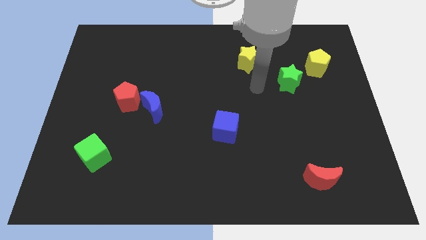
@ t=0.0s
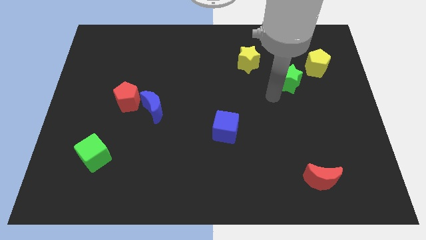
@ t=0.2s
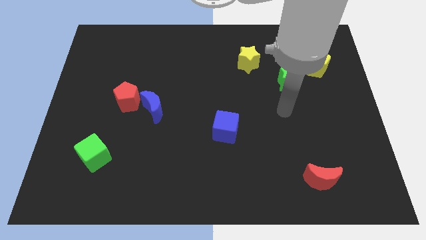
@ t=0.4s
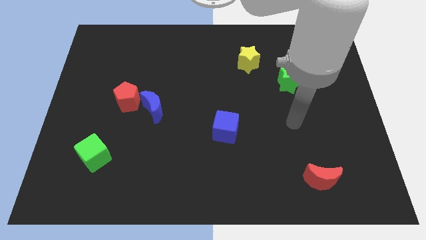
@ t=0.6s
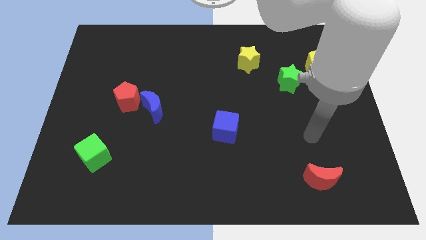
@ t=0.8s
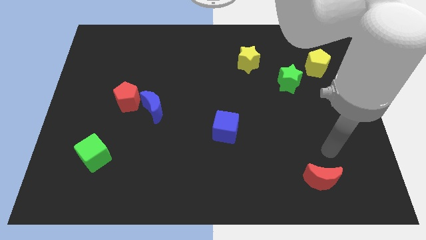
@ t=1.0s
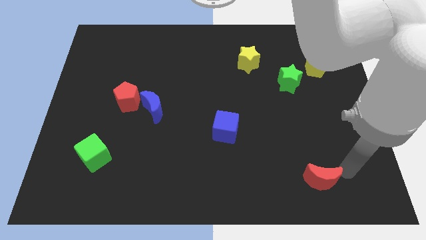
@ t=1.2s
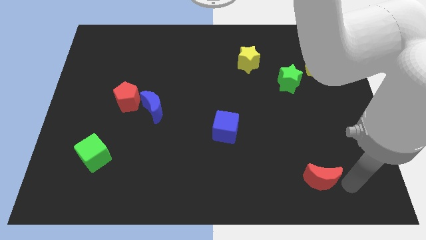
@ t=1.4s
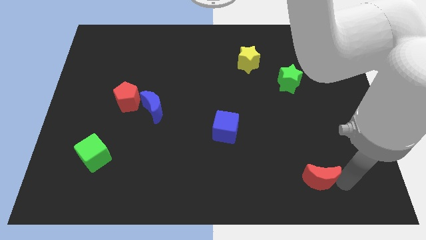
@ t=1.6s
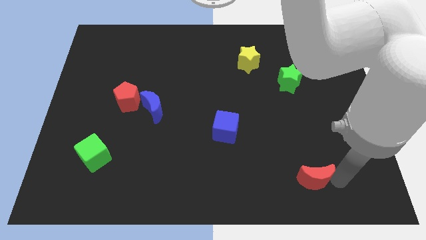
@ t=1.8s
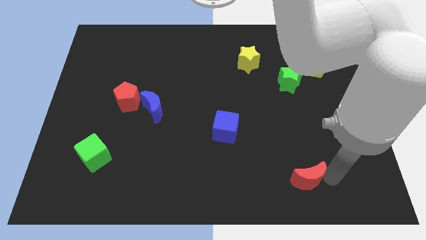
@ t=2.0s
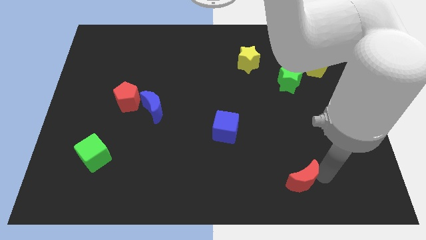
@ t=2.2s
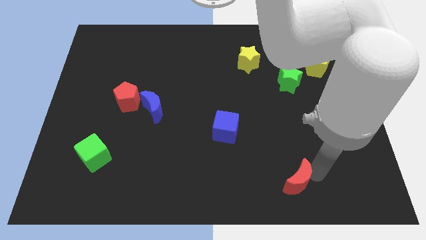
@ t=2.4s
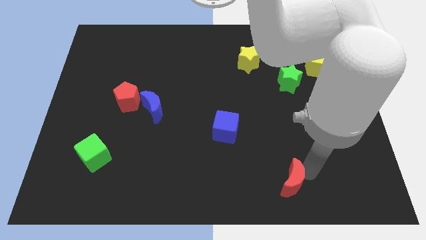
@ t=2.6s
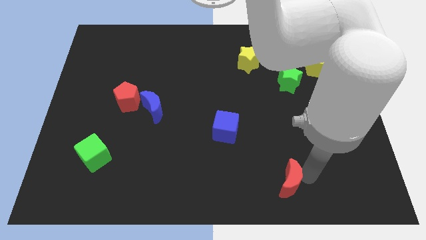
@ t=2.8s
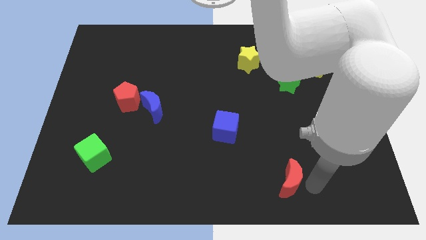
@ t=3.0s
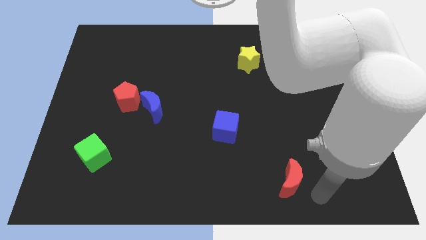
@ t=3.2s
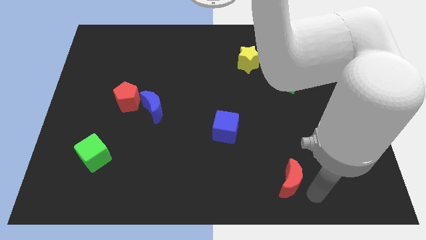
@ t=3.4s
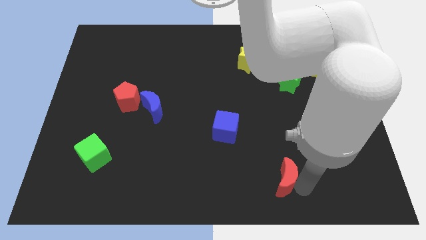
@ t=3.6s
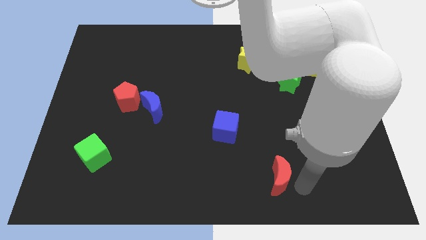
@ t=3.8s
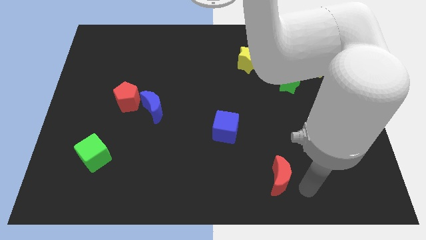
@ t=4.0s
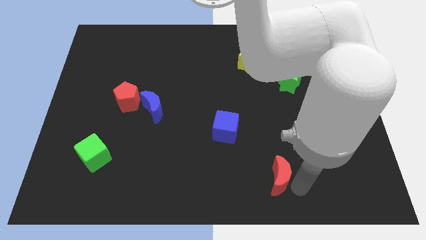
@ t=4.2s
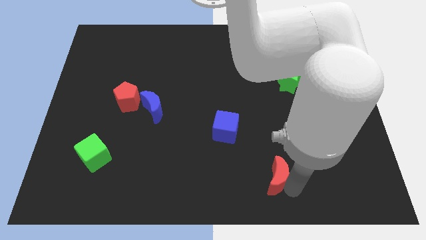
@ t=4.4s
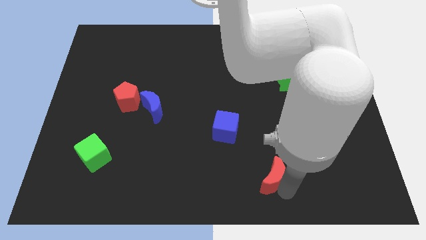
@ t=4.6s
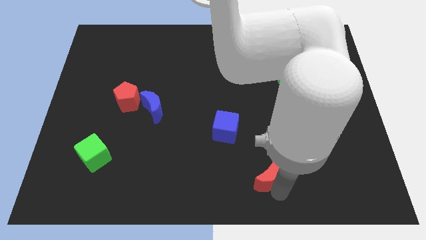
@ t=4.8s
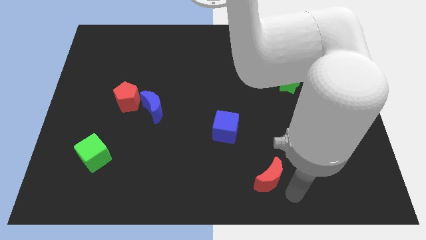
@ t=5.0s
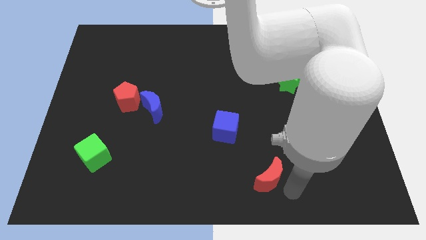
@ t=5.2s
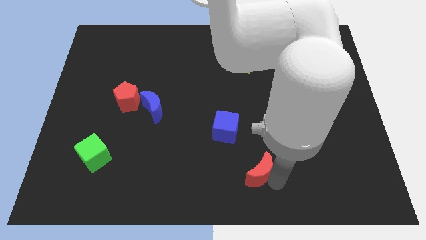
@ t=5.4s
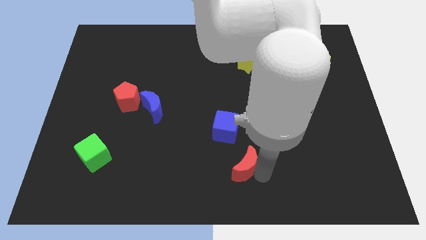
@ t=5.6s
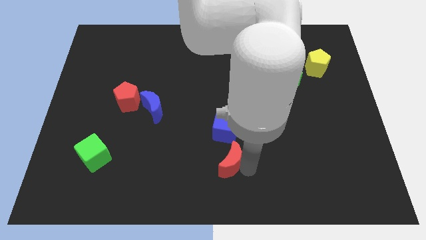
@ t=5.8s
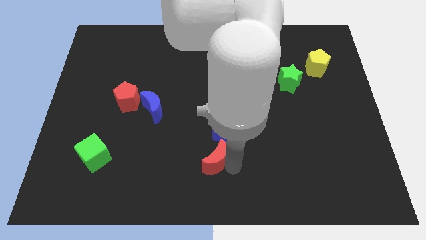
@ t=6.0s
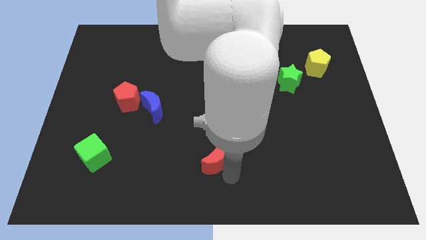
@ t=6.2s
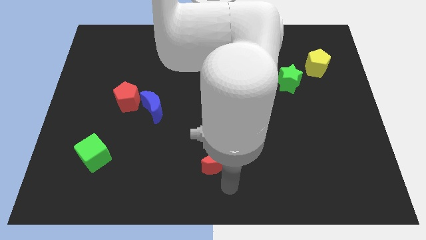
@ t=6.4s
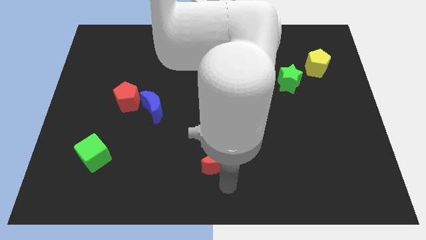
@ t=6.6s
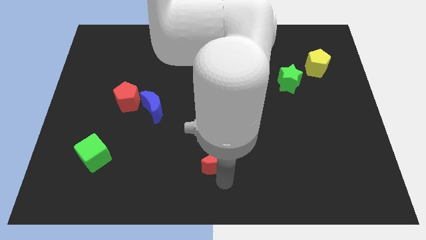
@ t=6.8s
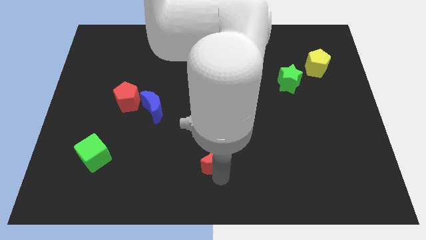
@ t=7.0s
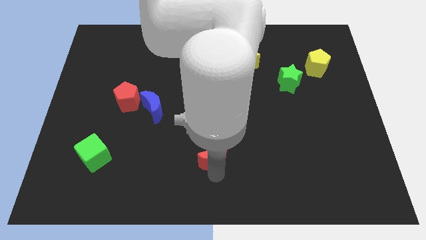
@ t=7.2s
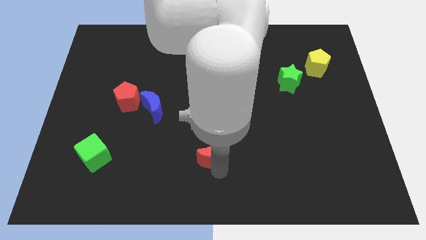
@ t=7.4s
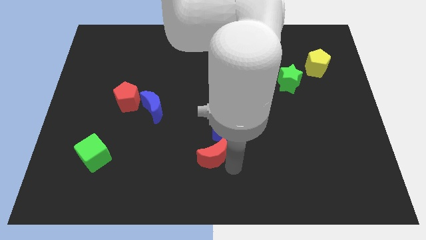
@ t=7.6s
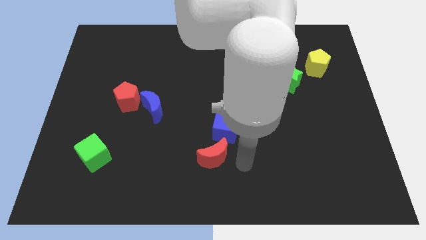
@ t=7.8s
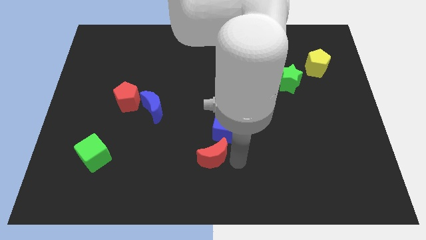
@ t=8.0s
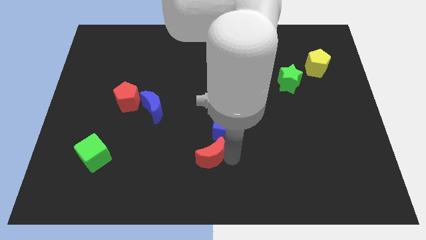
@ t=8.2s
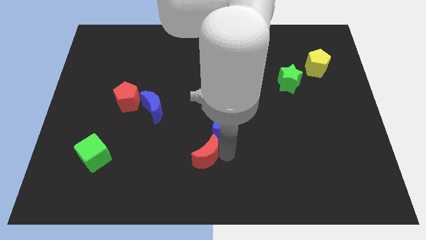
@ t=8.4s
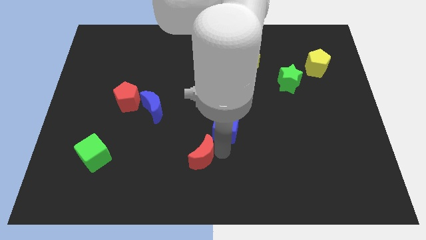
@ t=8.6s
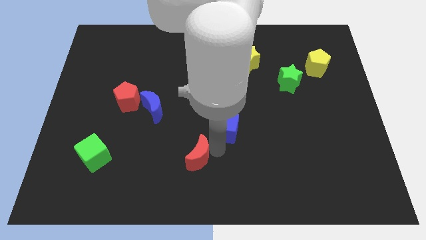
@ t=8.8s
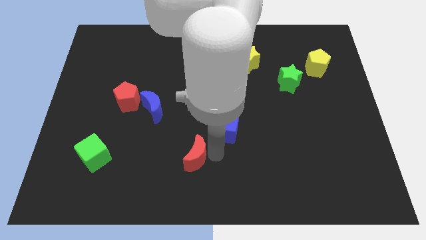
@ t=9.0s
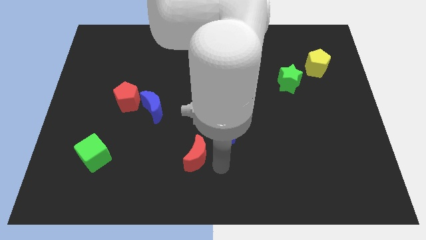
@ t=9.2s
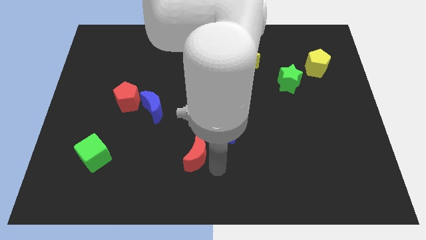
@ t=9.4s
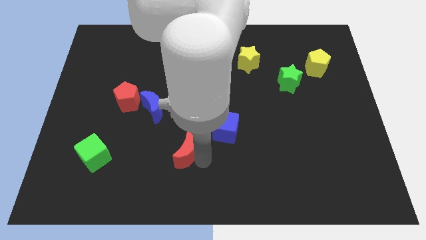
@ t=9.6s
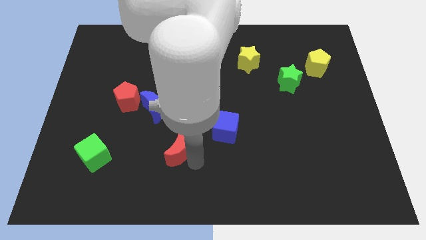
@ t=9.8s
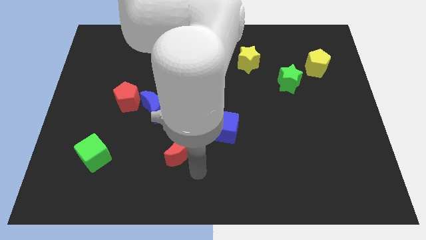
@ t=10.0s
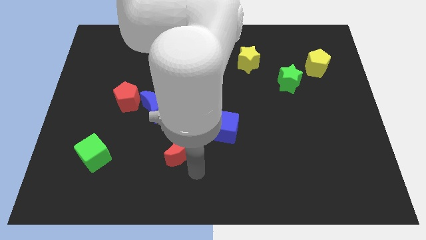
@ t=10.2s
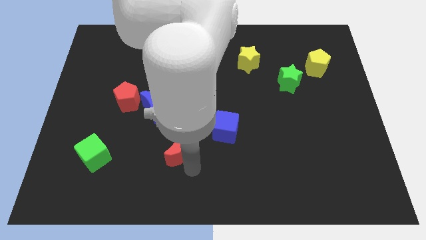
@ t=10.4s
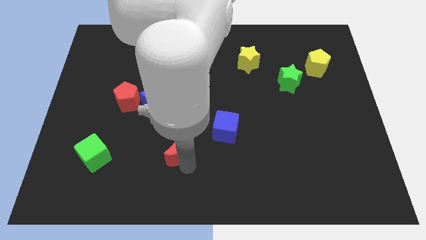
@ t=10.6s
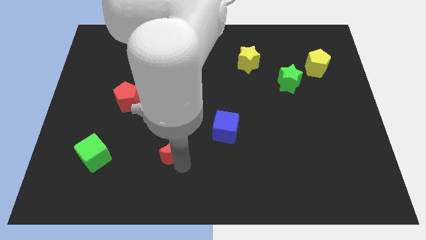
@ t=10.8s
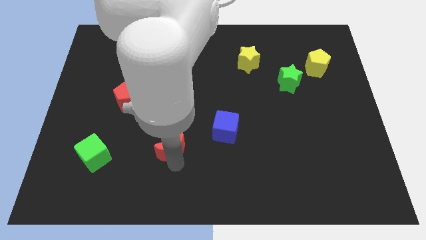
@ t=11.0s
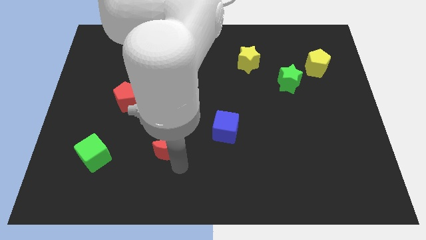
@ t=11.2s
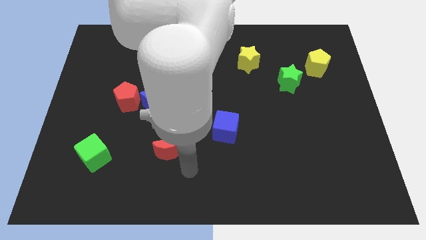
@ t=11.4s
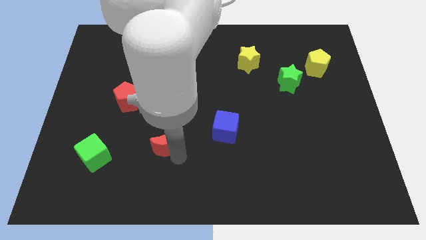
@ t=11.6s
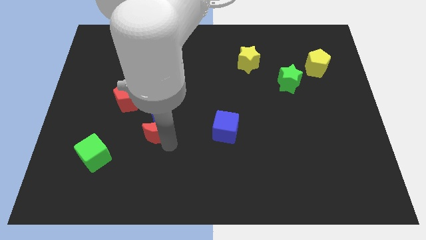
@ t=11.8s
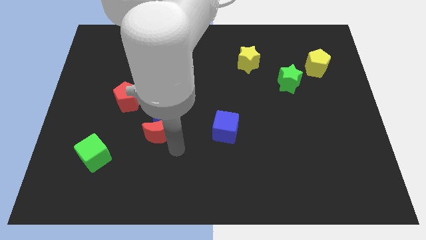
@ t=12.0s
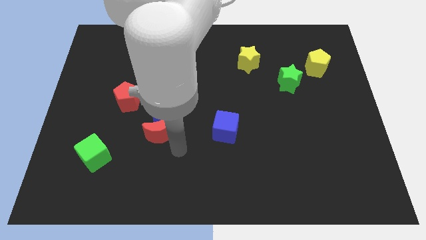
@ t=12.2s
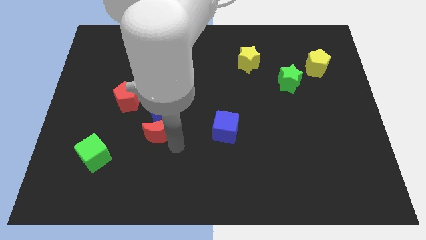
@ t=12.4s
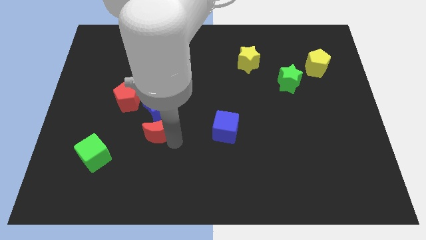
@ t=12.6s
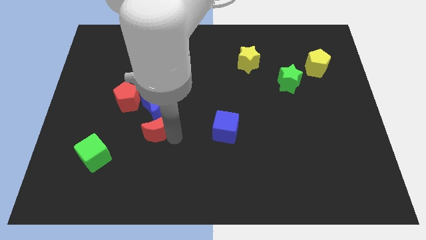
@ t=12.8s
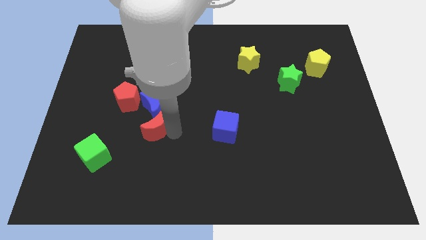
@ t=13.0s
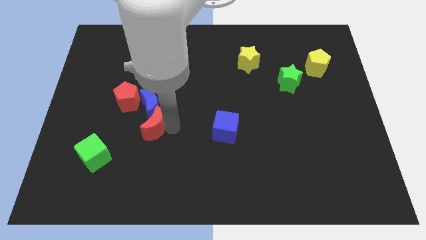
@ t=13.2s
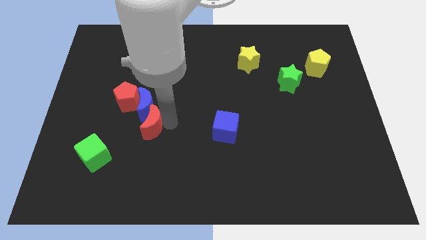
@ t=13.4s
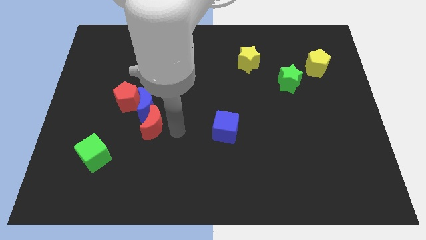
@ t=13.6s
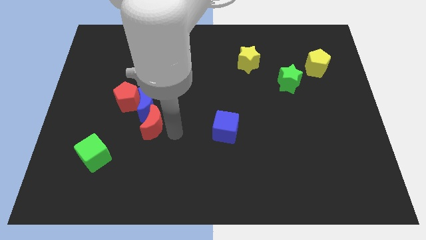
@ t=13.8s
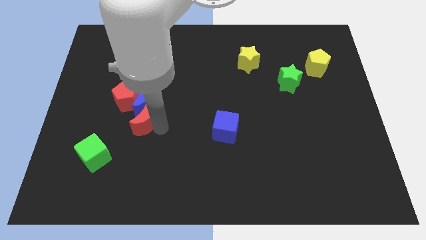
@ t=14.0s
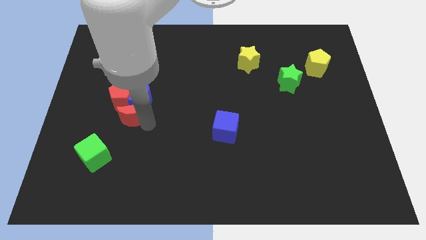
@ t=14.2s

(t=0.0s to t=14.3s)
put the red moon to the red pentagon
